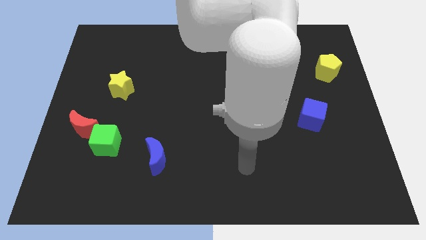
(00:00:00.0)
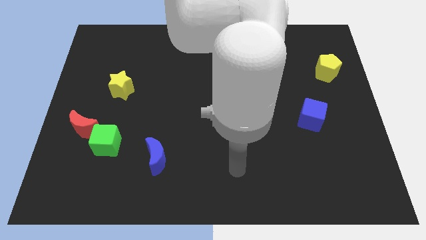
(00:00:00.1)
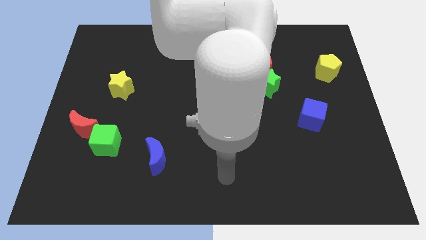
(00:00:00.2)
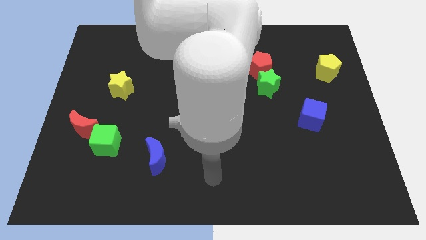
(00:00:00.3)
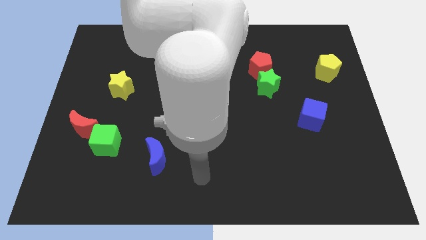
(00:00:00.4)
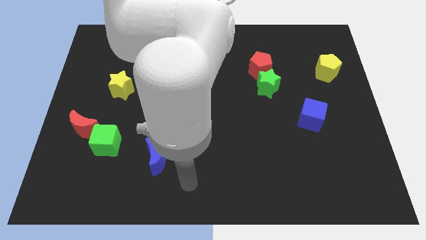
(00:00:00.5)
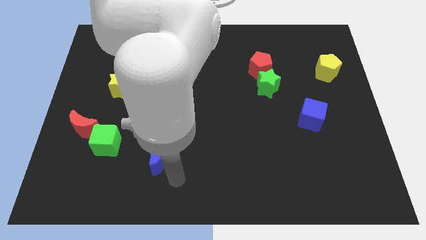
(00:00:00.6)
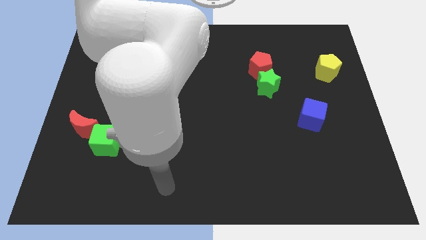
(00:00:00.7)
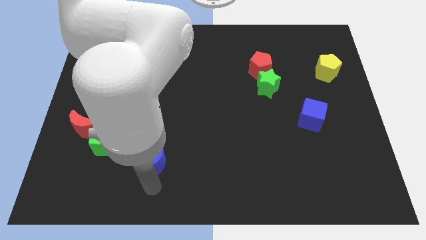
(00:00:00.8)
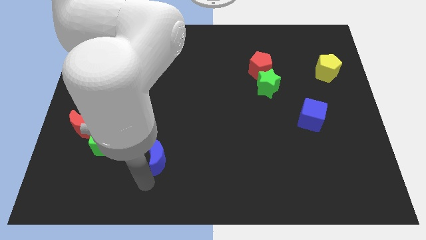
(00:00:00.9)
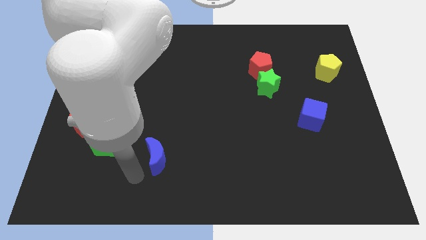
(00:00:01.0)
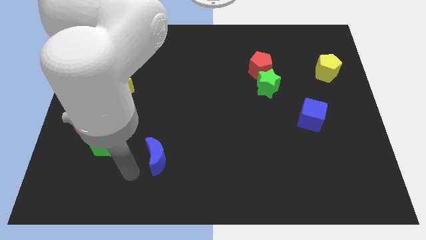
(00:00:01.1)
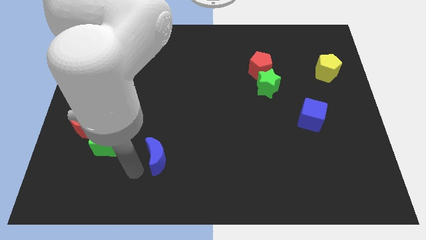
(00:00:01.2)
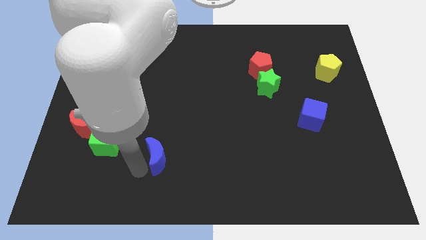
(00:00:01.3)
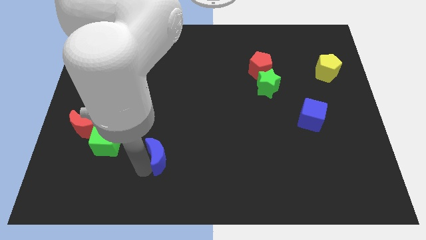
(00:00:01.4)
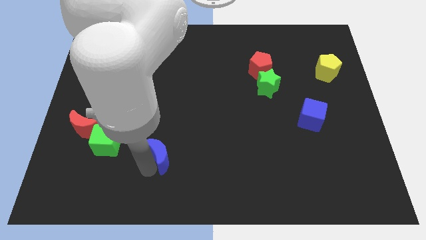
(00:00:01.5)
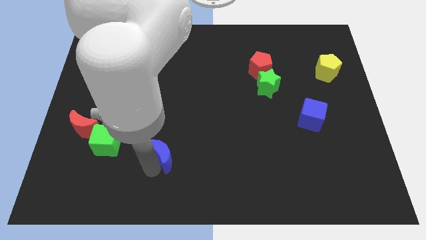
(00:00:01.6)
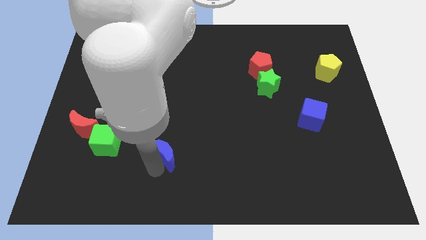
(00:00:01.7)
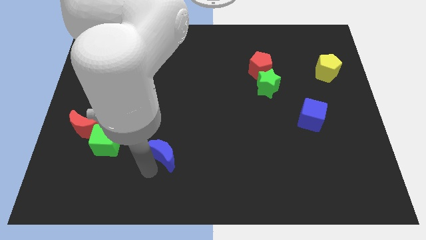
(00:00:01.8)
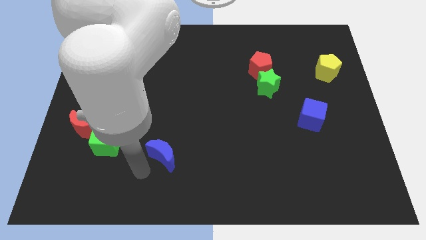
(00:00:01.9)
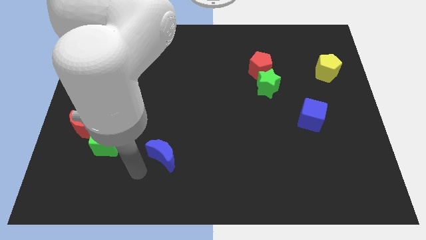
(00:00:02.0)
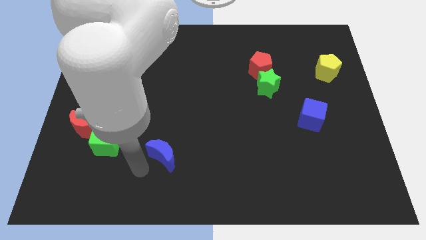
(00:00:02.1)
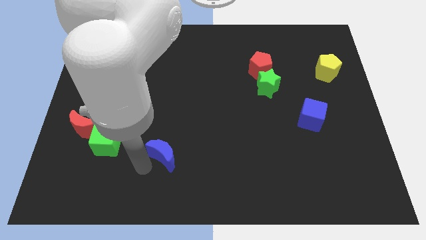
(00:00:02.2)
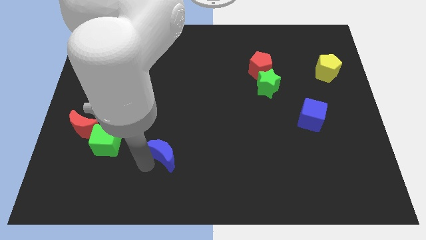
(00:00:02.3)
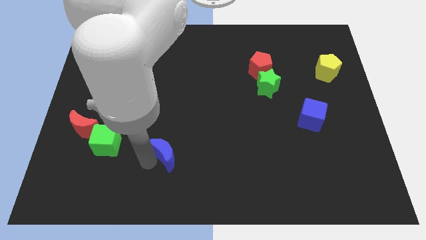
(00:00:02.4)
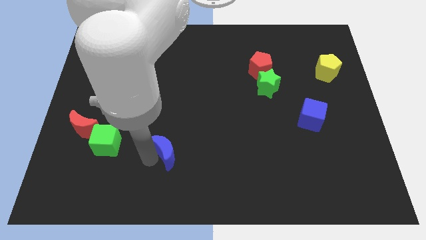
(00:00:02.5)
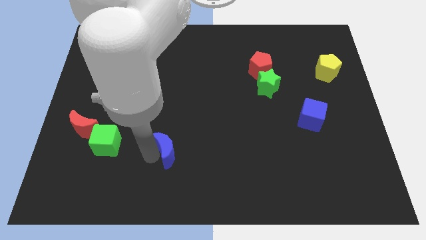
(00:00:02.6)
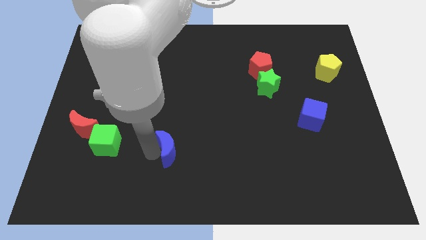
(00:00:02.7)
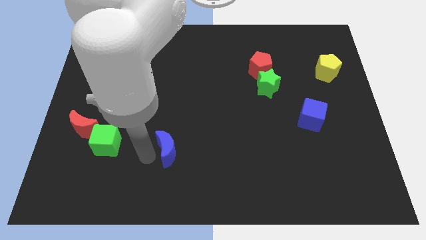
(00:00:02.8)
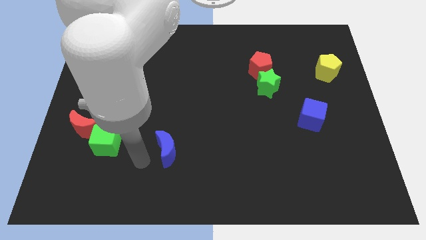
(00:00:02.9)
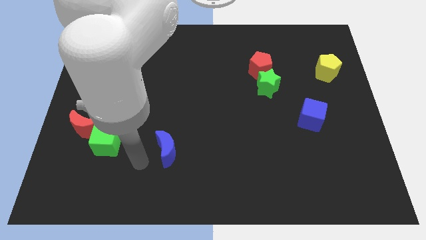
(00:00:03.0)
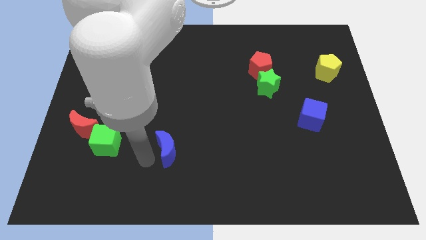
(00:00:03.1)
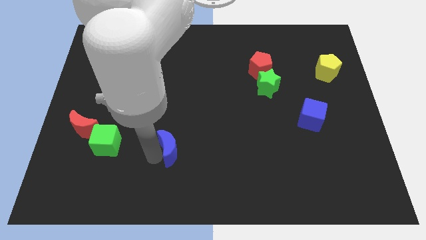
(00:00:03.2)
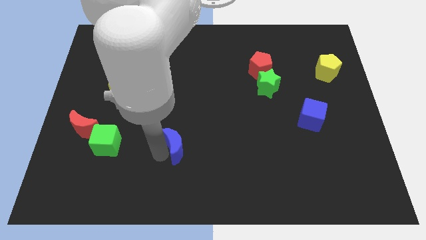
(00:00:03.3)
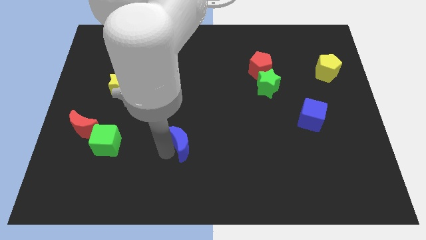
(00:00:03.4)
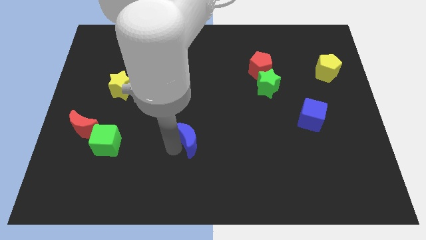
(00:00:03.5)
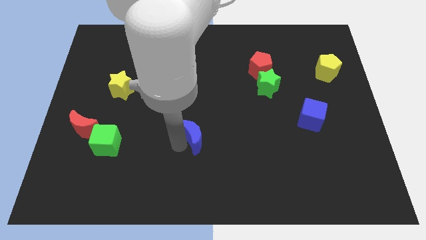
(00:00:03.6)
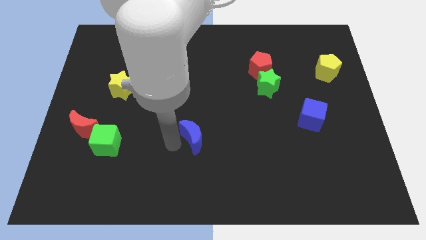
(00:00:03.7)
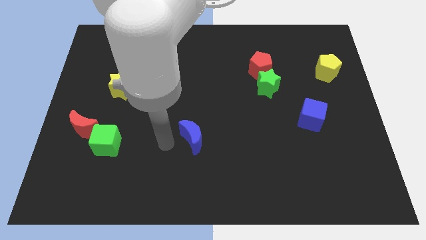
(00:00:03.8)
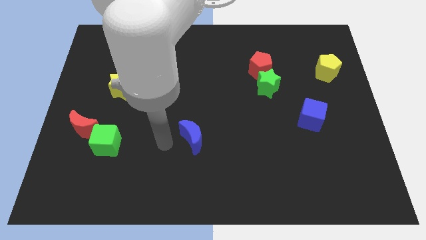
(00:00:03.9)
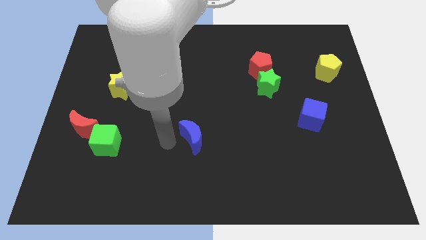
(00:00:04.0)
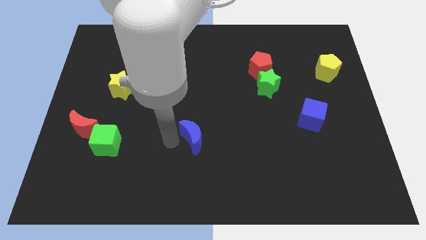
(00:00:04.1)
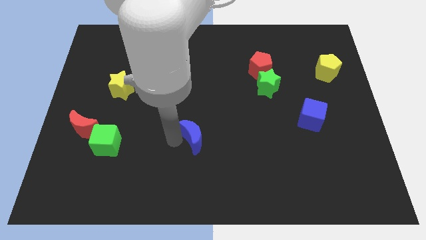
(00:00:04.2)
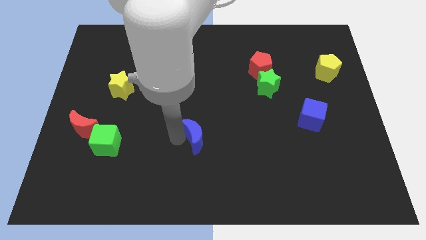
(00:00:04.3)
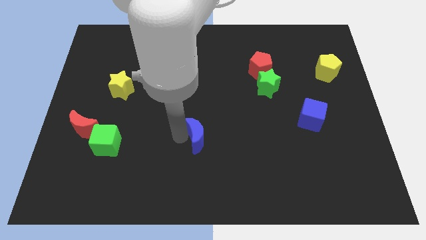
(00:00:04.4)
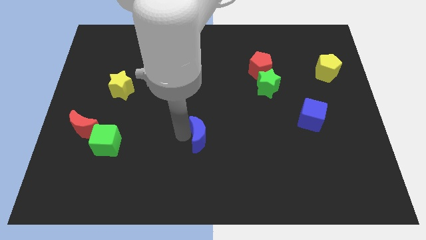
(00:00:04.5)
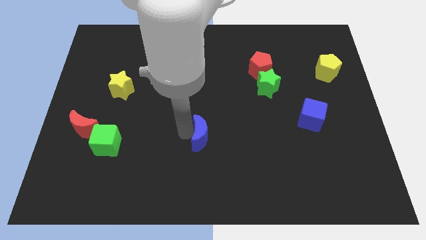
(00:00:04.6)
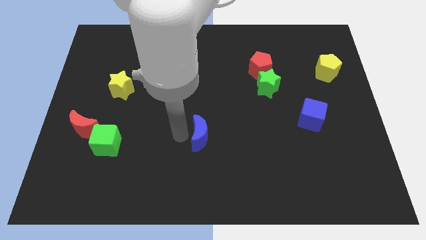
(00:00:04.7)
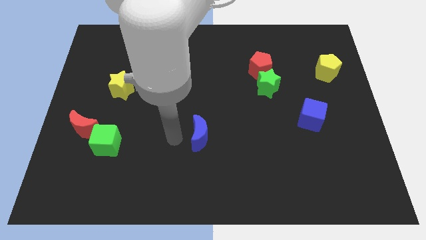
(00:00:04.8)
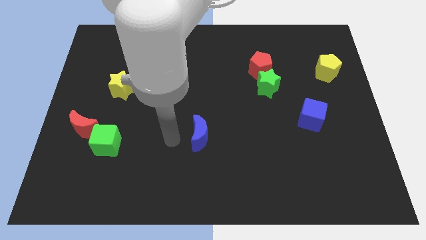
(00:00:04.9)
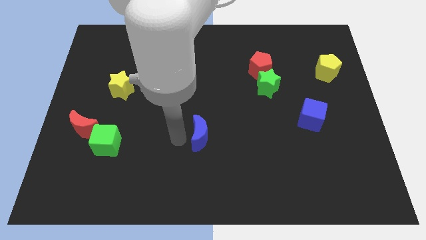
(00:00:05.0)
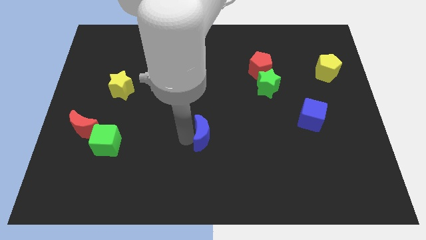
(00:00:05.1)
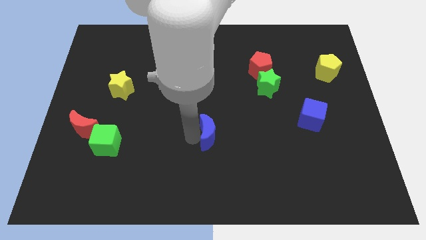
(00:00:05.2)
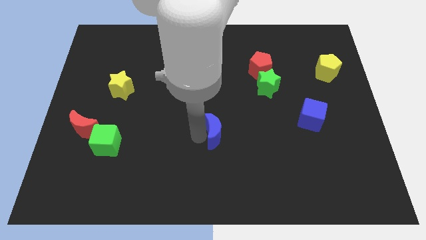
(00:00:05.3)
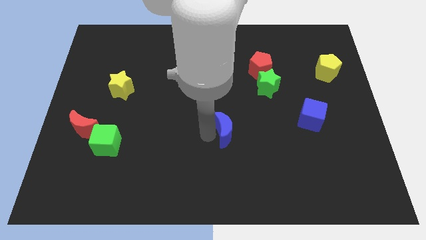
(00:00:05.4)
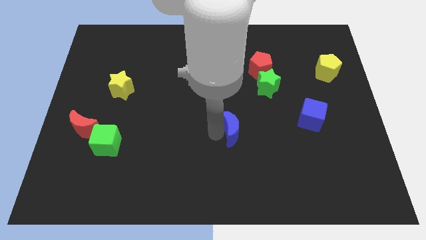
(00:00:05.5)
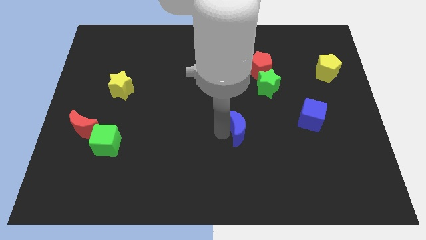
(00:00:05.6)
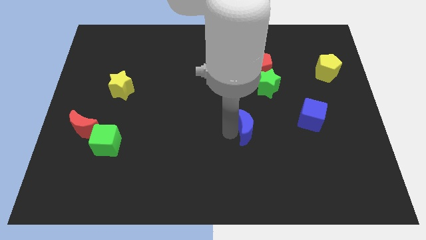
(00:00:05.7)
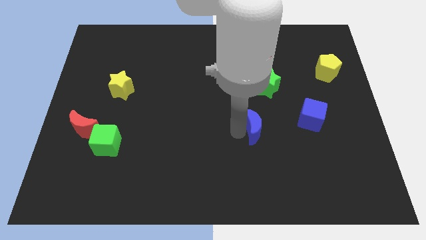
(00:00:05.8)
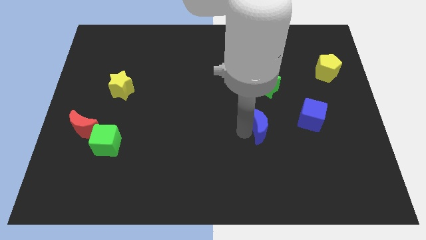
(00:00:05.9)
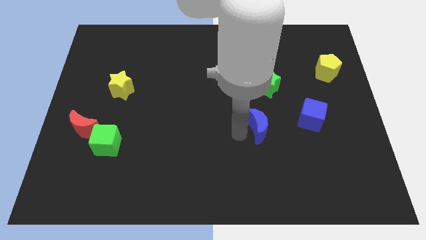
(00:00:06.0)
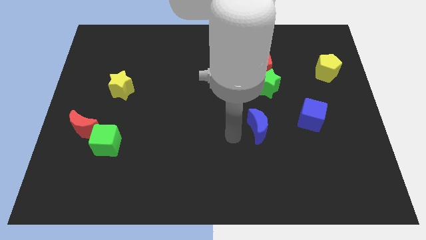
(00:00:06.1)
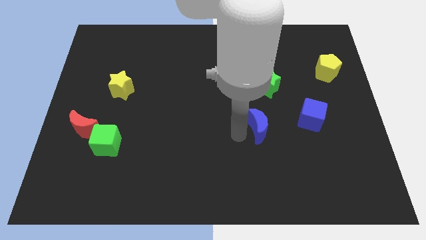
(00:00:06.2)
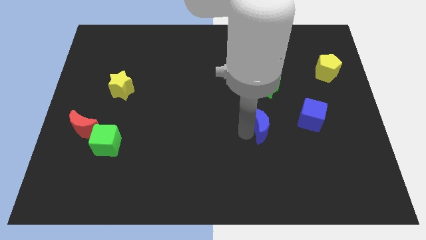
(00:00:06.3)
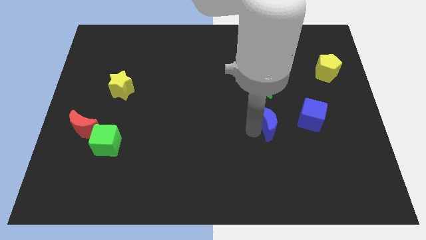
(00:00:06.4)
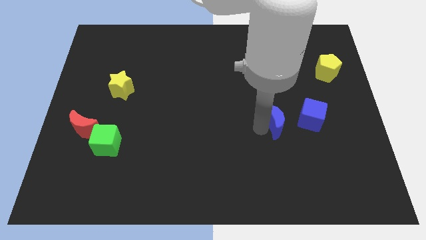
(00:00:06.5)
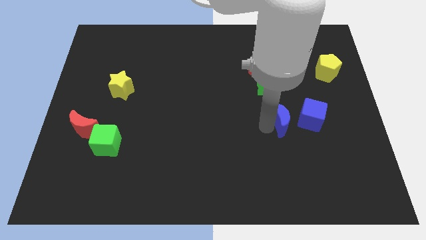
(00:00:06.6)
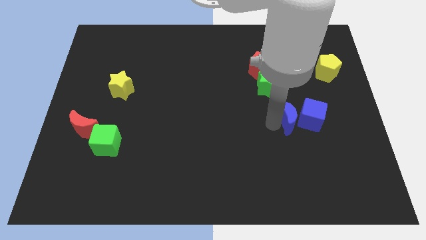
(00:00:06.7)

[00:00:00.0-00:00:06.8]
slide the blue moon next to the blue cube
